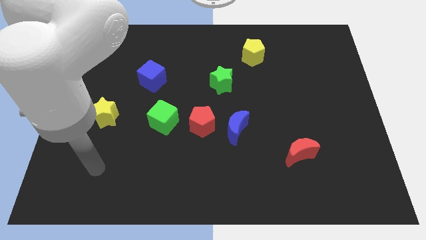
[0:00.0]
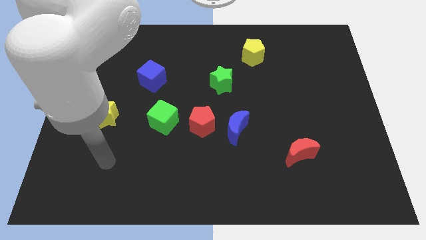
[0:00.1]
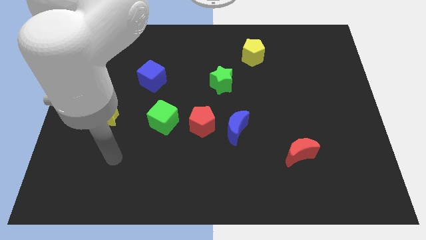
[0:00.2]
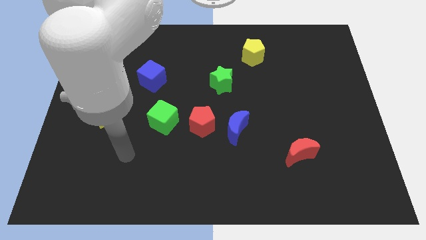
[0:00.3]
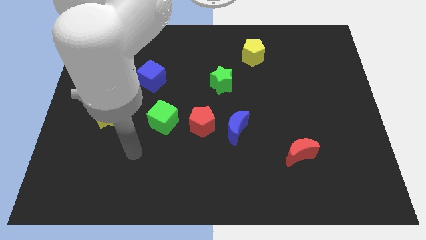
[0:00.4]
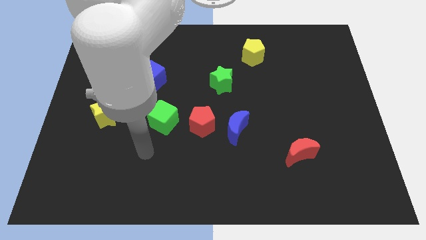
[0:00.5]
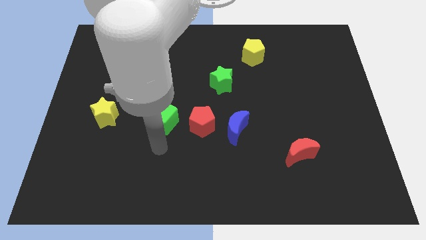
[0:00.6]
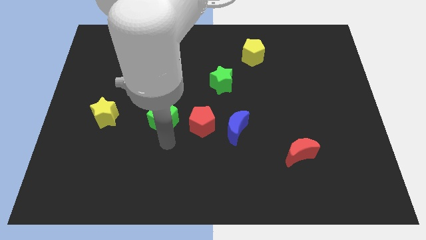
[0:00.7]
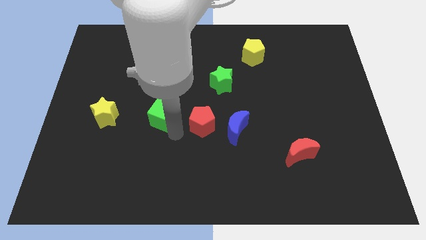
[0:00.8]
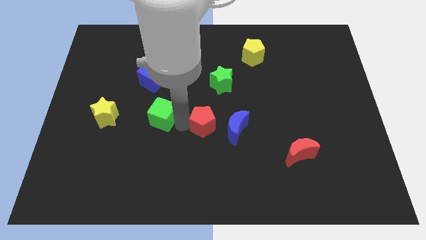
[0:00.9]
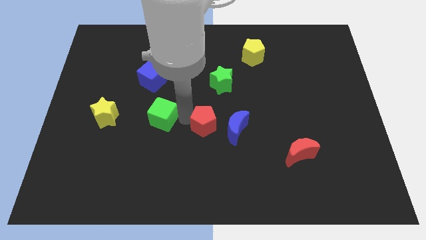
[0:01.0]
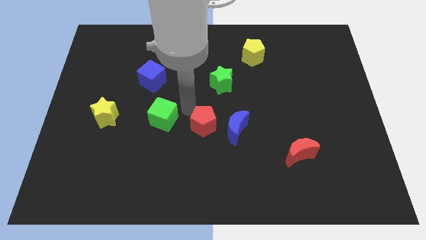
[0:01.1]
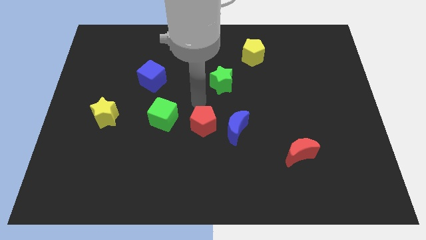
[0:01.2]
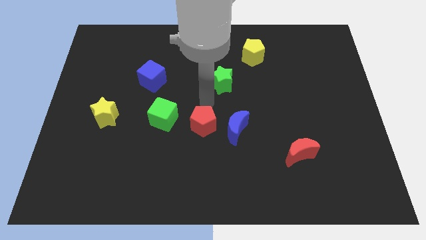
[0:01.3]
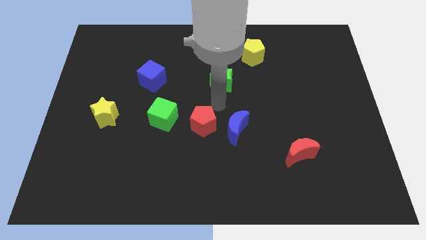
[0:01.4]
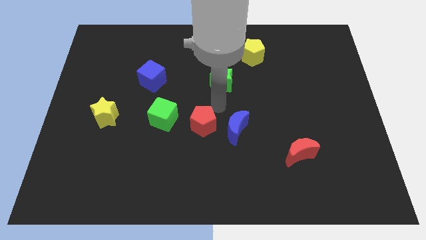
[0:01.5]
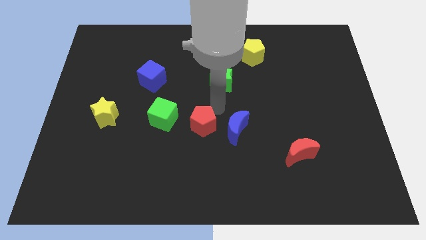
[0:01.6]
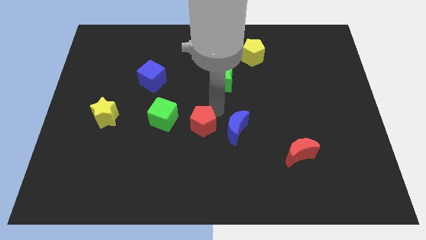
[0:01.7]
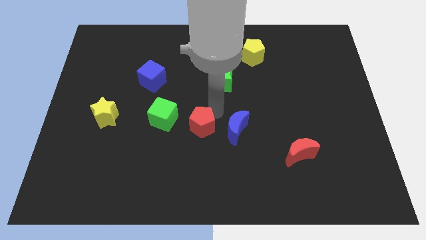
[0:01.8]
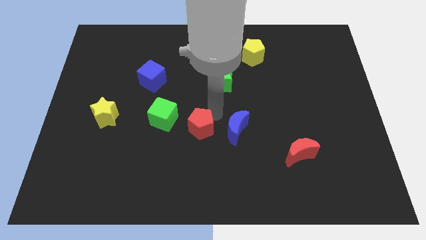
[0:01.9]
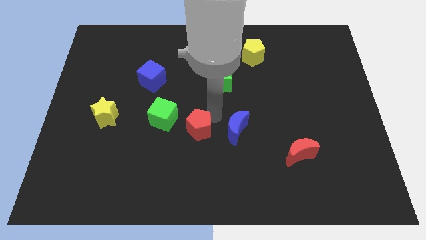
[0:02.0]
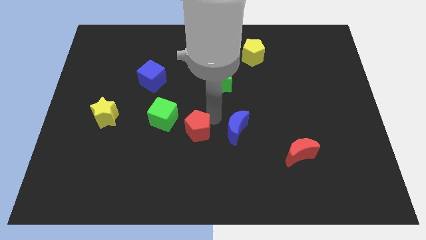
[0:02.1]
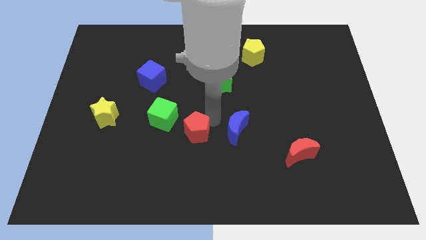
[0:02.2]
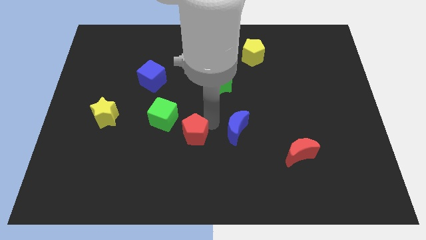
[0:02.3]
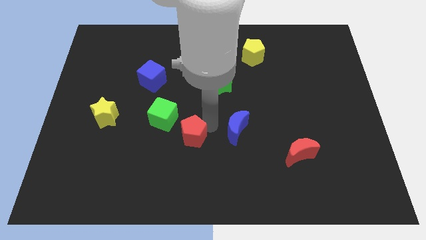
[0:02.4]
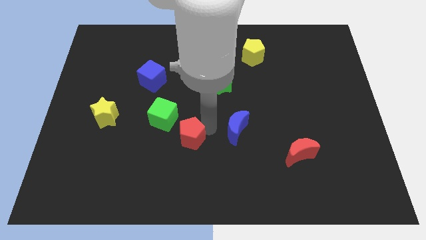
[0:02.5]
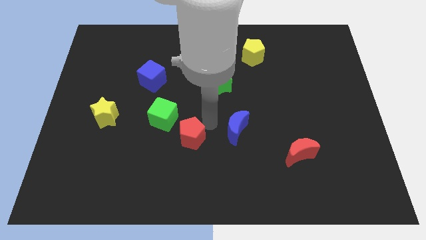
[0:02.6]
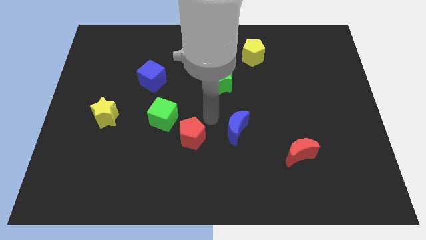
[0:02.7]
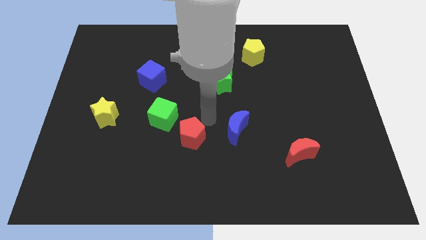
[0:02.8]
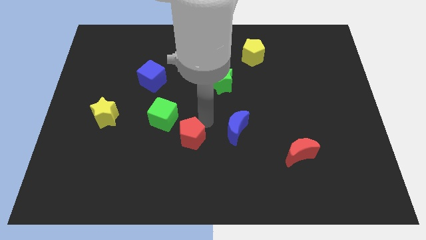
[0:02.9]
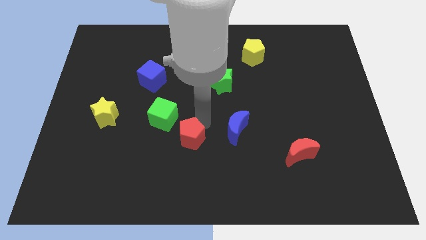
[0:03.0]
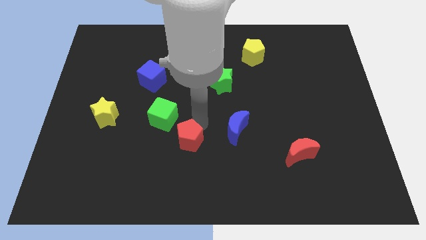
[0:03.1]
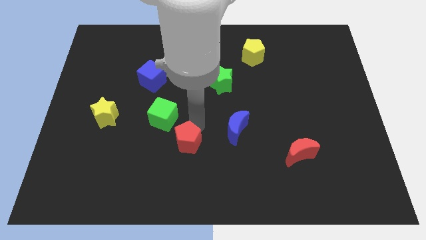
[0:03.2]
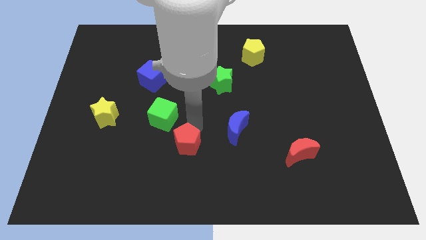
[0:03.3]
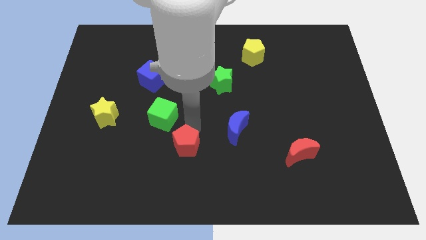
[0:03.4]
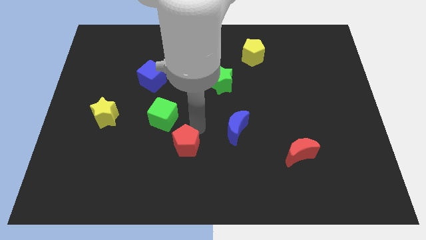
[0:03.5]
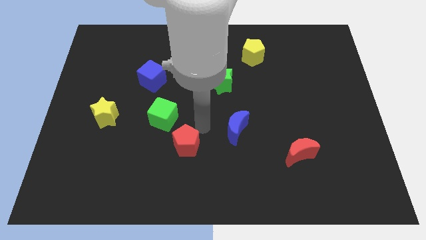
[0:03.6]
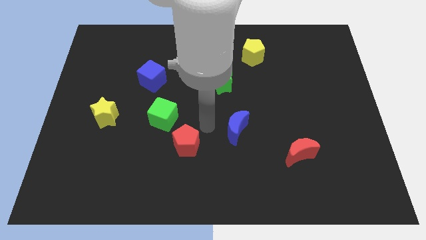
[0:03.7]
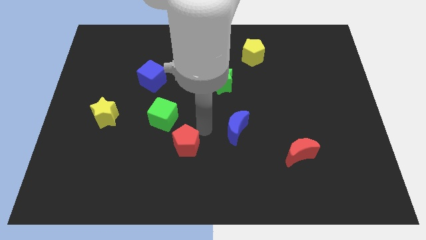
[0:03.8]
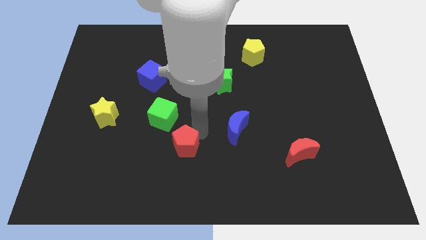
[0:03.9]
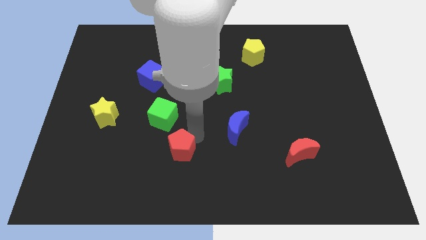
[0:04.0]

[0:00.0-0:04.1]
slide the red pentagon diagonally down and to the left slightly

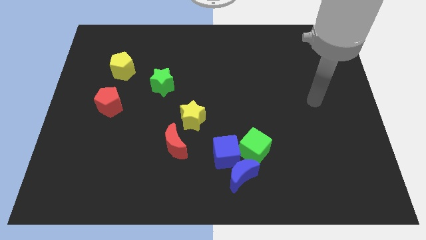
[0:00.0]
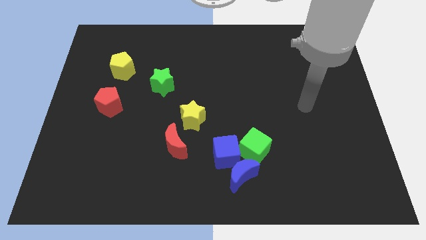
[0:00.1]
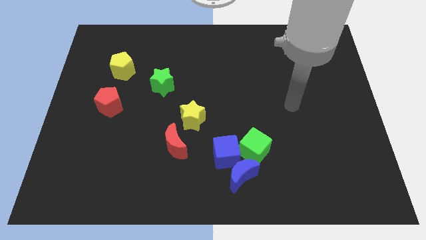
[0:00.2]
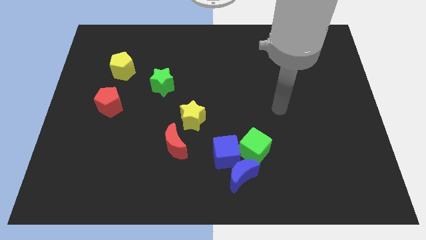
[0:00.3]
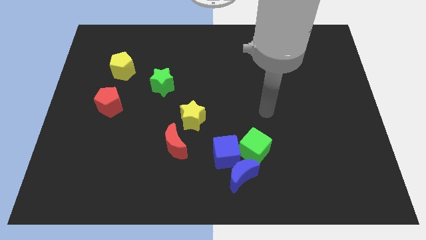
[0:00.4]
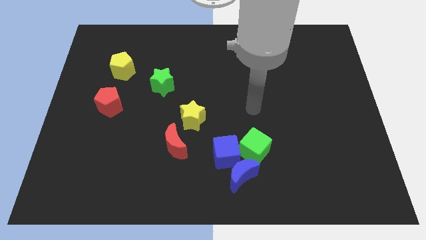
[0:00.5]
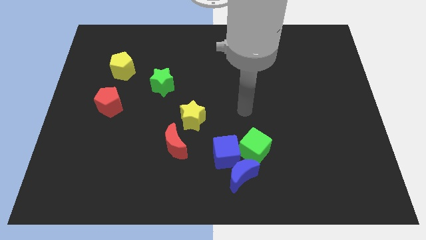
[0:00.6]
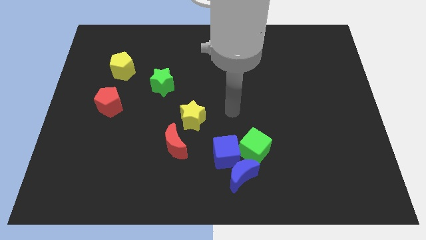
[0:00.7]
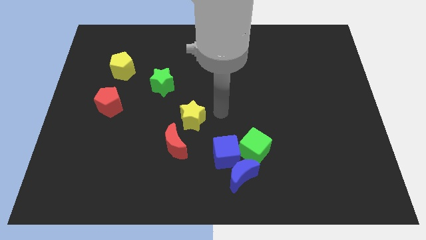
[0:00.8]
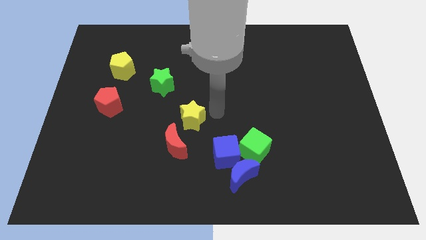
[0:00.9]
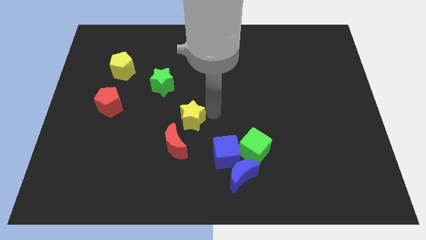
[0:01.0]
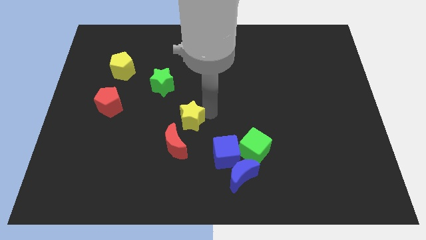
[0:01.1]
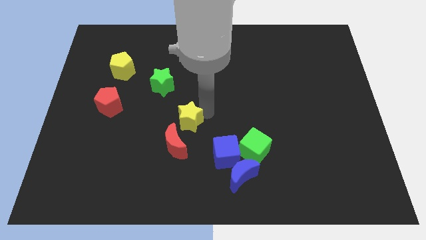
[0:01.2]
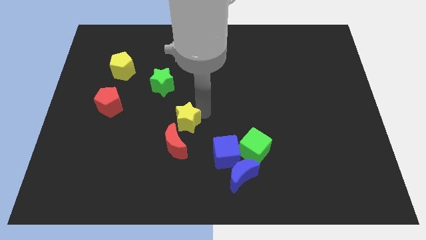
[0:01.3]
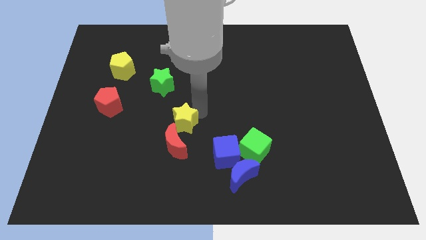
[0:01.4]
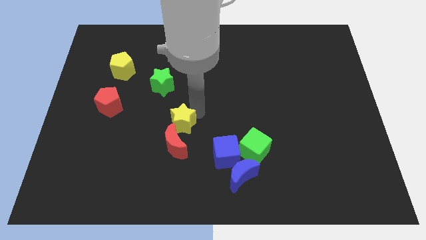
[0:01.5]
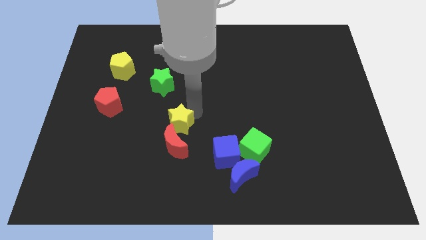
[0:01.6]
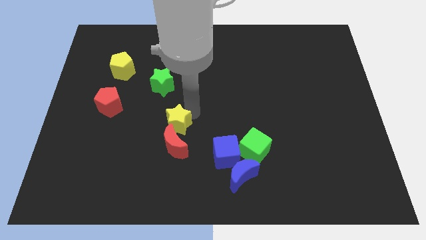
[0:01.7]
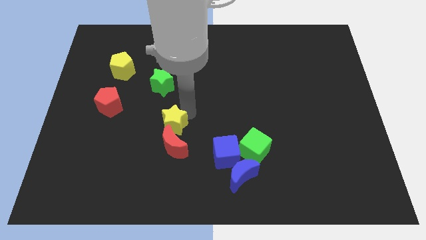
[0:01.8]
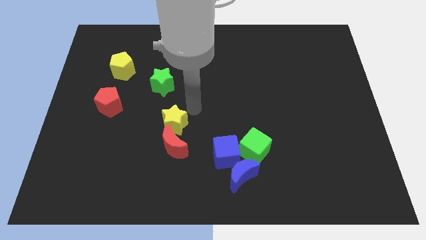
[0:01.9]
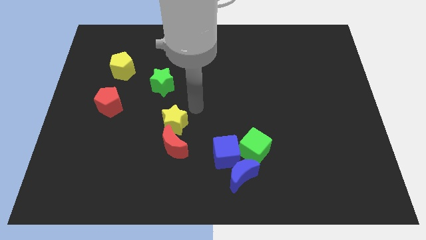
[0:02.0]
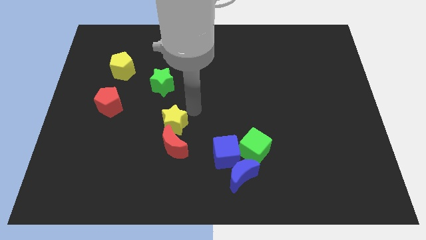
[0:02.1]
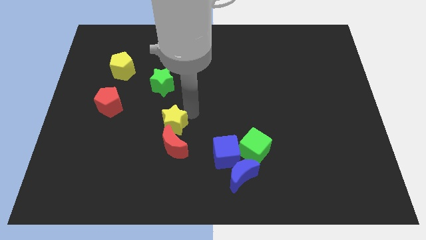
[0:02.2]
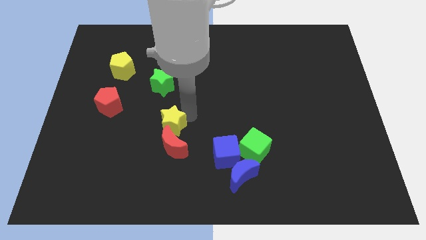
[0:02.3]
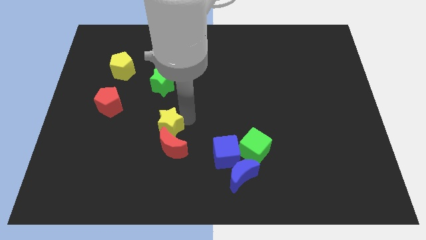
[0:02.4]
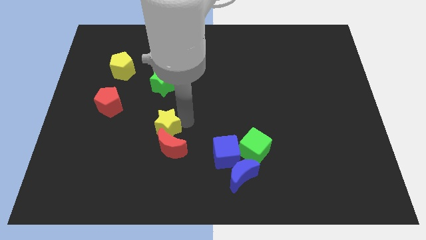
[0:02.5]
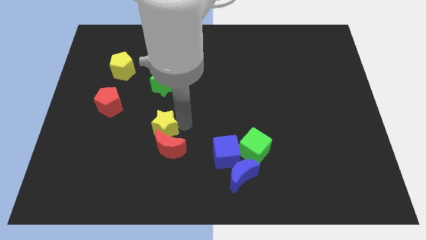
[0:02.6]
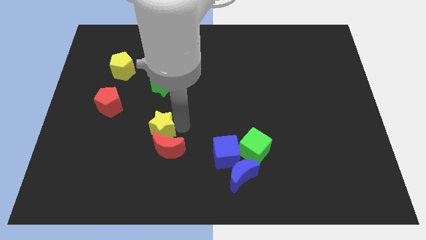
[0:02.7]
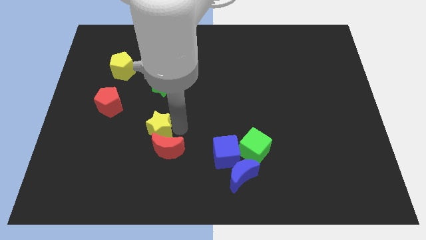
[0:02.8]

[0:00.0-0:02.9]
slightly slide the yellow star downwards and then to the left

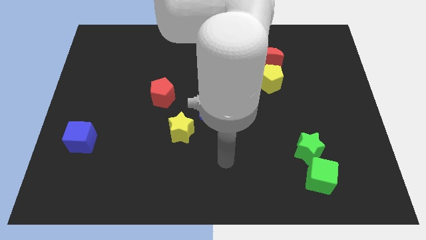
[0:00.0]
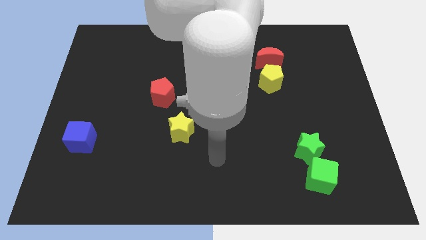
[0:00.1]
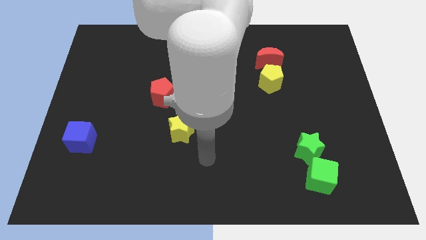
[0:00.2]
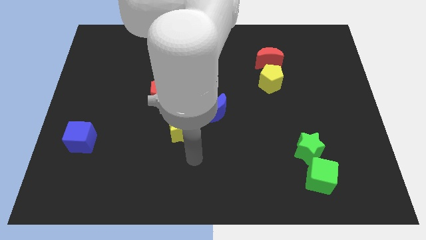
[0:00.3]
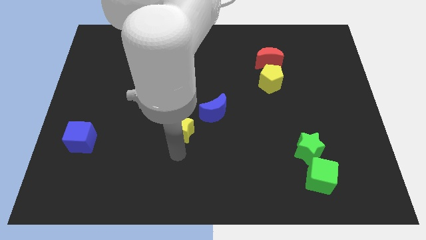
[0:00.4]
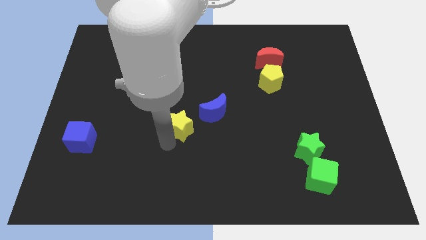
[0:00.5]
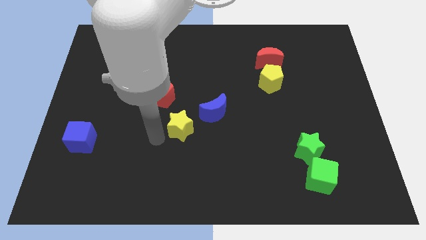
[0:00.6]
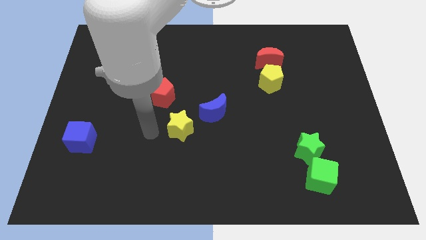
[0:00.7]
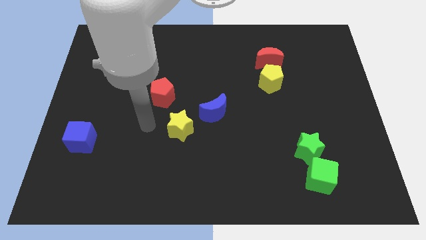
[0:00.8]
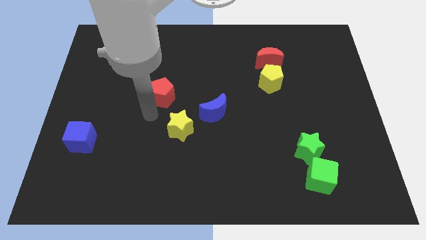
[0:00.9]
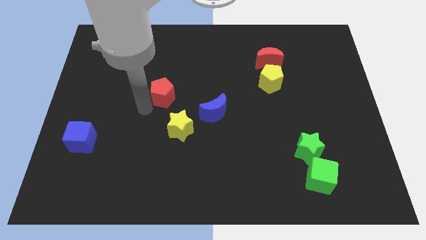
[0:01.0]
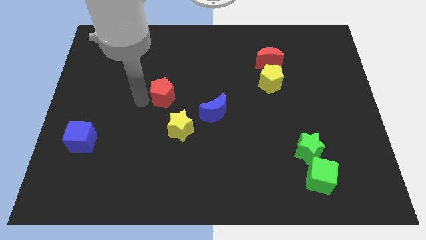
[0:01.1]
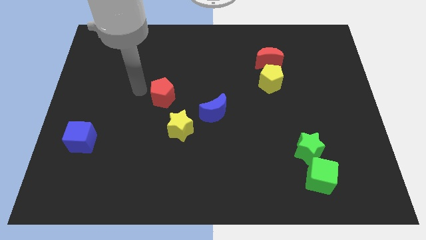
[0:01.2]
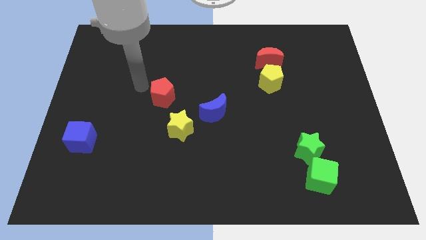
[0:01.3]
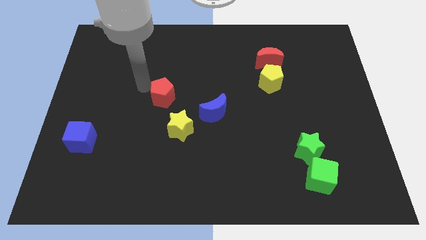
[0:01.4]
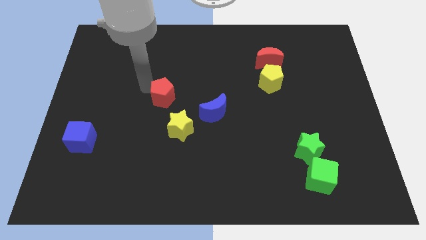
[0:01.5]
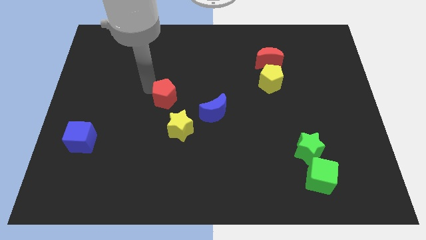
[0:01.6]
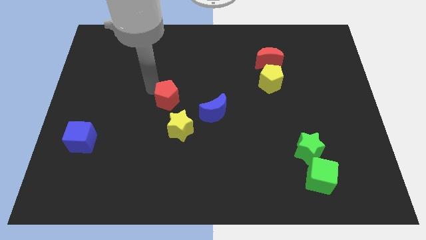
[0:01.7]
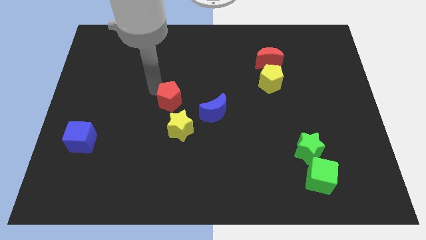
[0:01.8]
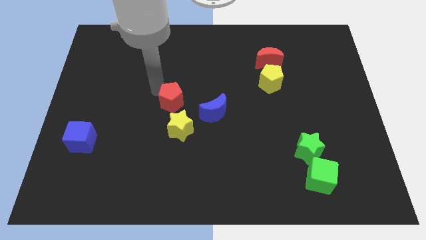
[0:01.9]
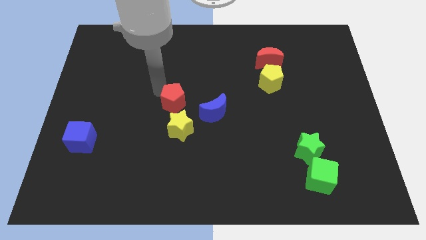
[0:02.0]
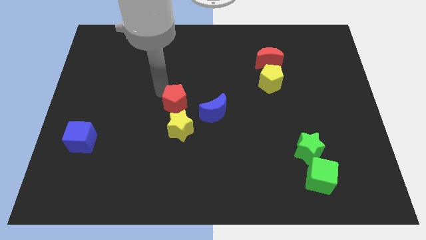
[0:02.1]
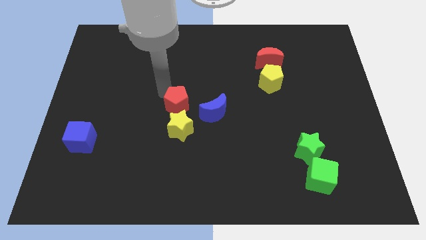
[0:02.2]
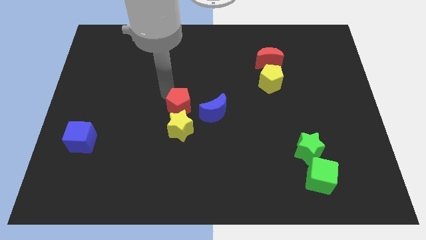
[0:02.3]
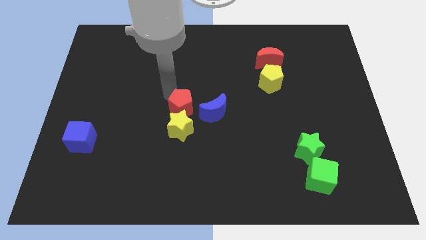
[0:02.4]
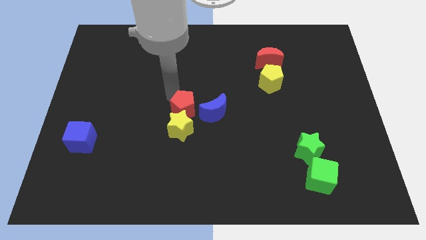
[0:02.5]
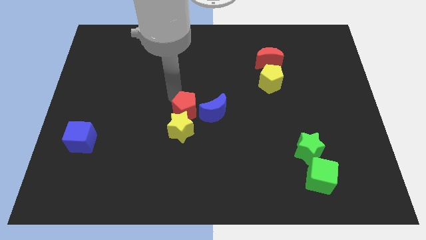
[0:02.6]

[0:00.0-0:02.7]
move the red pentagon downwards and right diagonally a little
